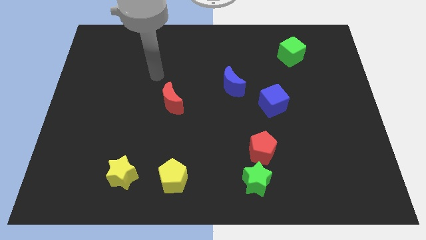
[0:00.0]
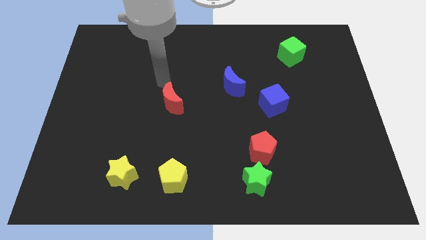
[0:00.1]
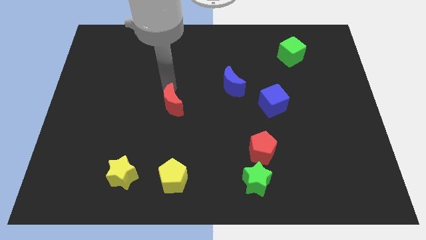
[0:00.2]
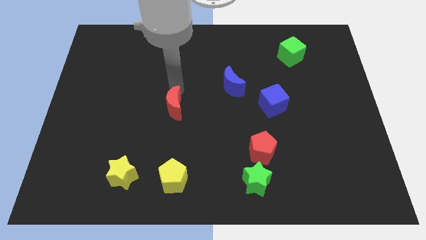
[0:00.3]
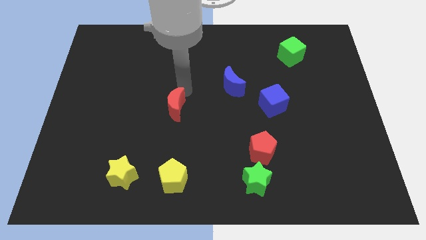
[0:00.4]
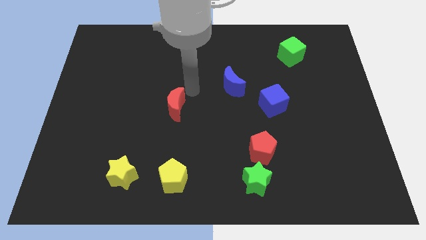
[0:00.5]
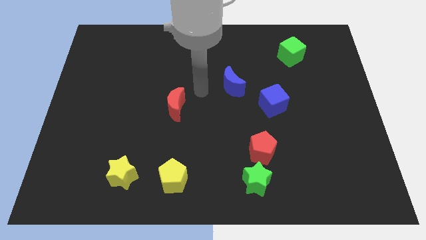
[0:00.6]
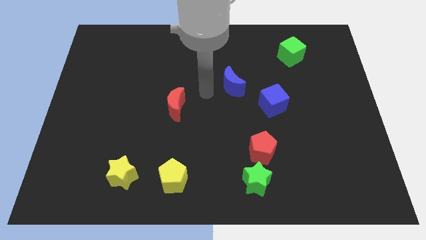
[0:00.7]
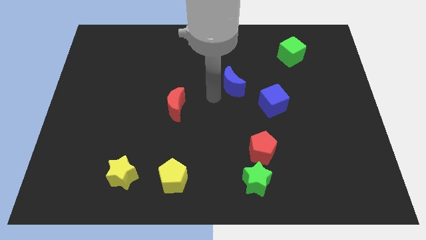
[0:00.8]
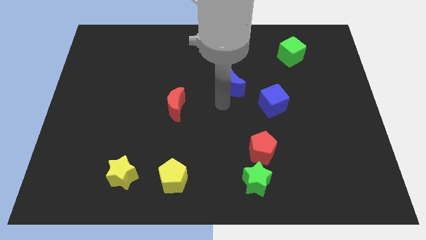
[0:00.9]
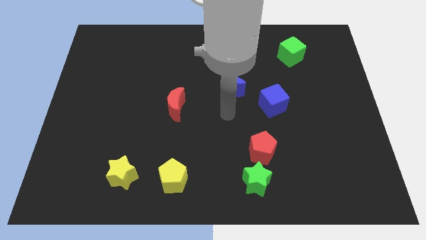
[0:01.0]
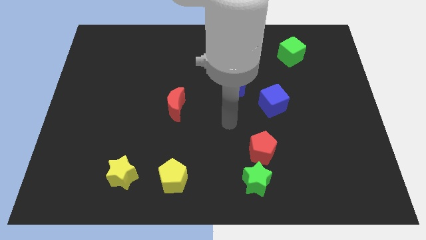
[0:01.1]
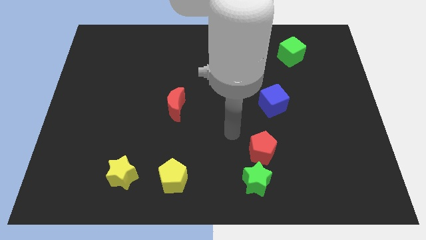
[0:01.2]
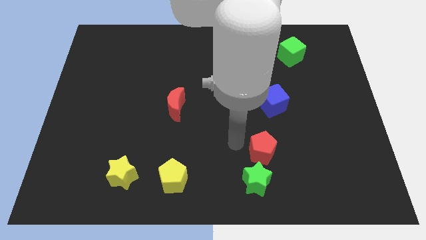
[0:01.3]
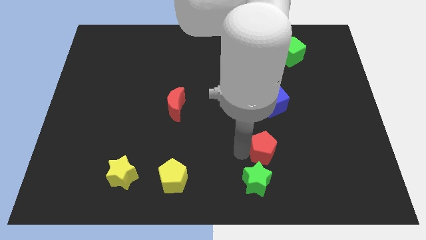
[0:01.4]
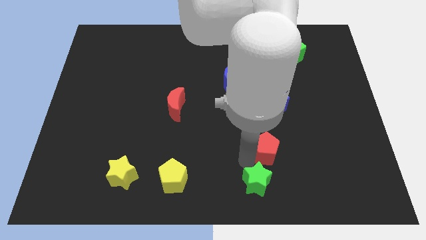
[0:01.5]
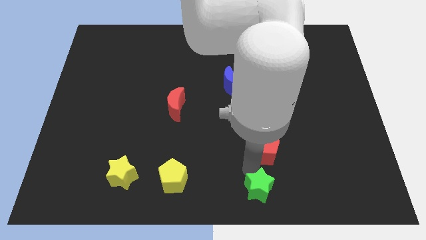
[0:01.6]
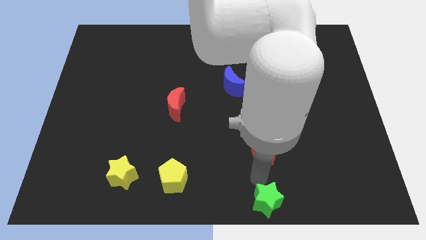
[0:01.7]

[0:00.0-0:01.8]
pull the red pentagon apart from the green star

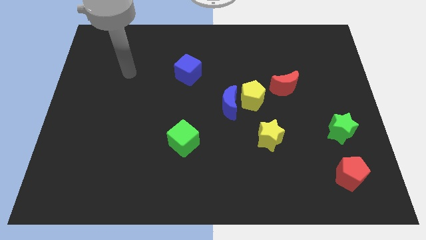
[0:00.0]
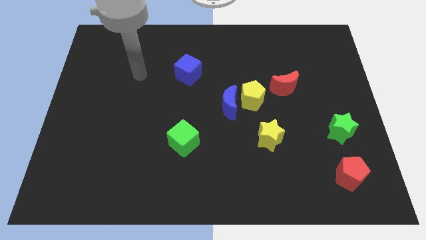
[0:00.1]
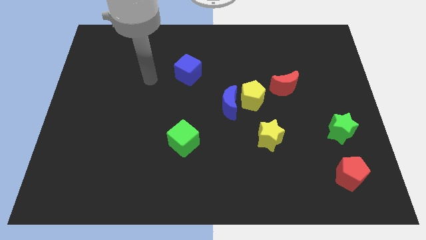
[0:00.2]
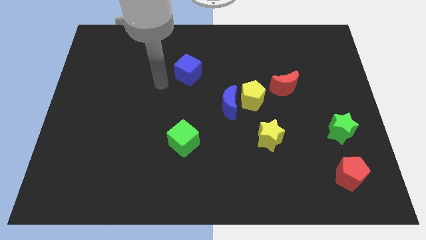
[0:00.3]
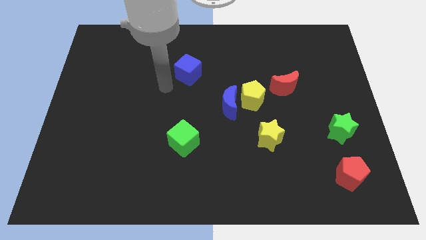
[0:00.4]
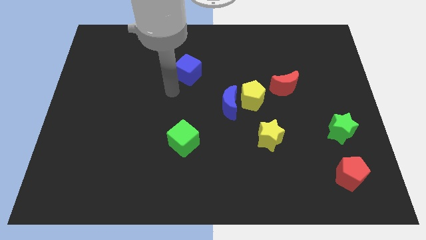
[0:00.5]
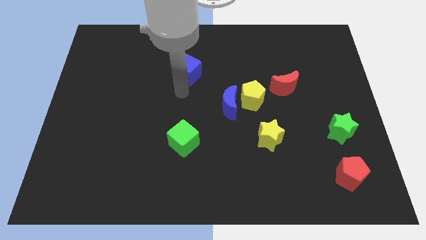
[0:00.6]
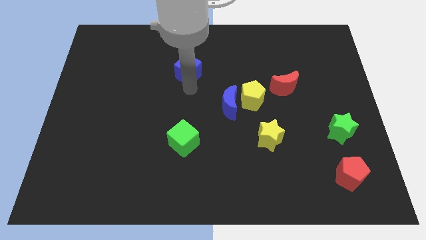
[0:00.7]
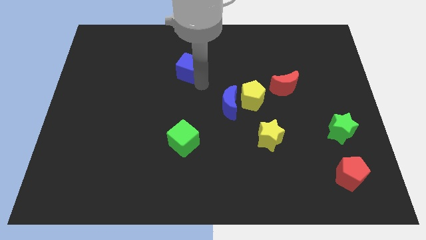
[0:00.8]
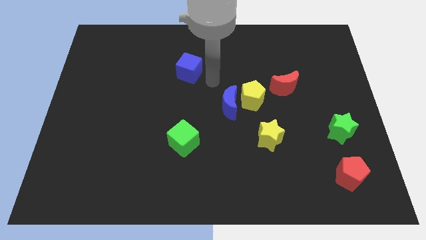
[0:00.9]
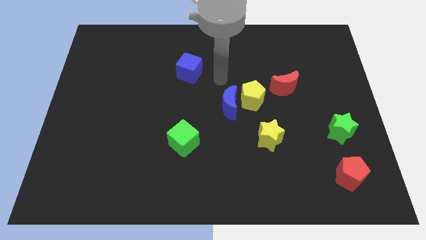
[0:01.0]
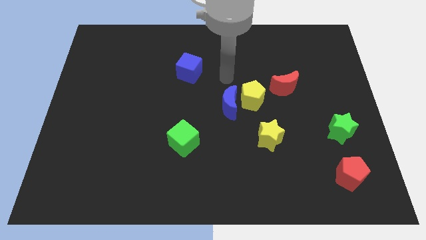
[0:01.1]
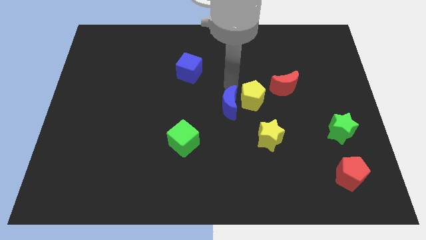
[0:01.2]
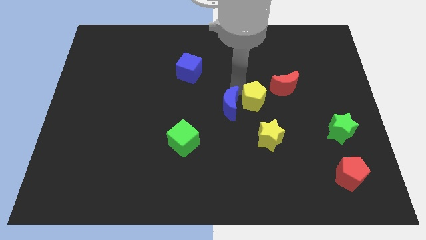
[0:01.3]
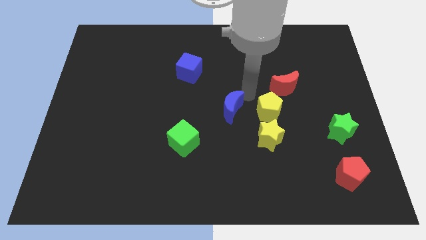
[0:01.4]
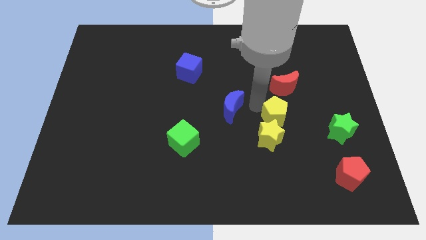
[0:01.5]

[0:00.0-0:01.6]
separate the blue moon from the yellow pentagon

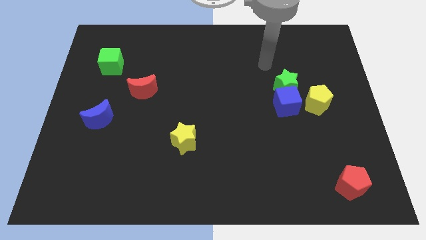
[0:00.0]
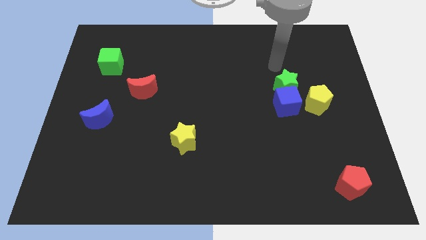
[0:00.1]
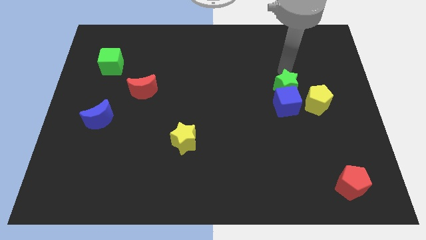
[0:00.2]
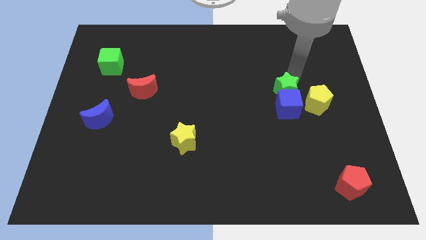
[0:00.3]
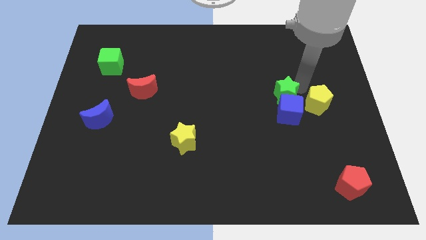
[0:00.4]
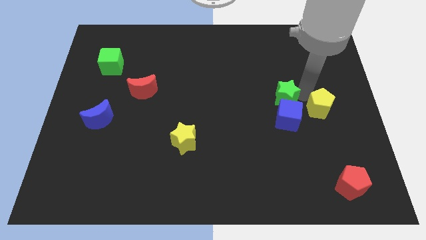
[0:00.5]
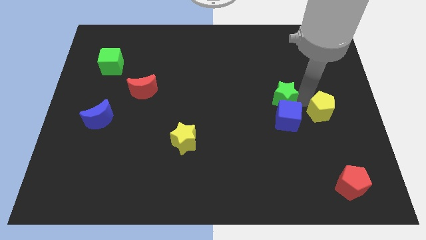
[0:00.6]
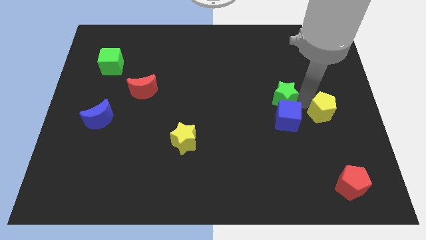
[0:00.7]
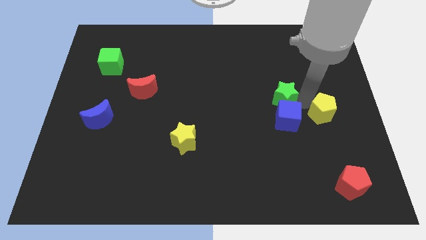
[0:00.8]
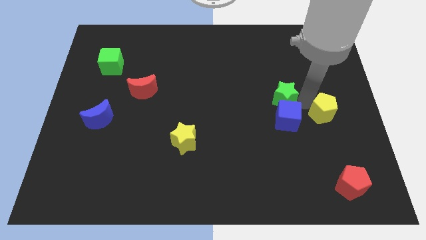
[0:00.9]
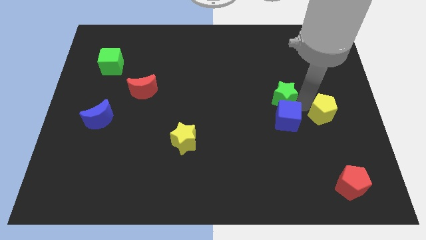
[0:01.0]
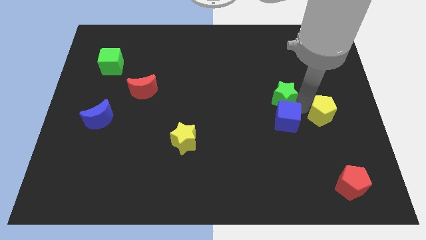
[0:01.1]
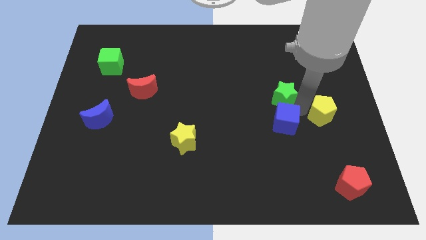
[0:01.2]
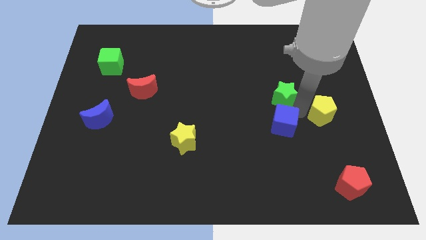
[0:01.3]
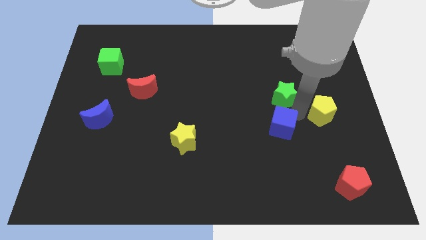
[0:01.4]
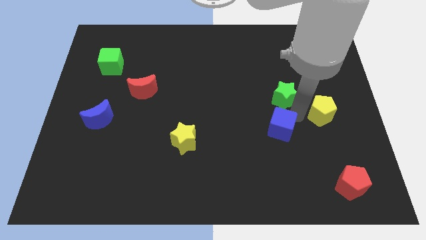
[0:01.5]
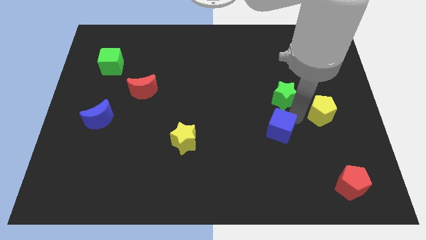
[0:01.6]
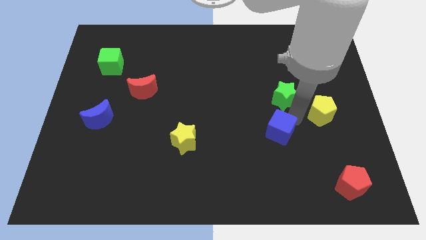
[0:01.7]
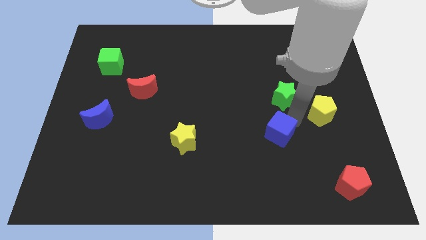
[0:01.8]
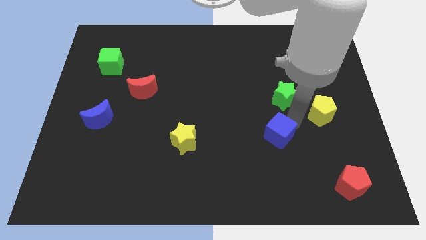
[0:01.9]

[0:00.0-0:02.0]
move the blue cube away from the green star and yellow pentagon

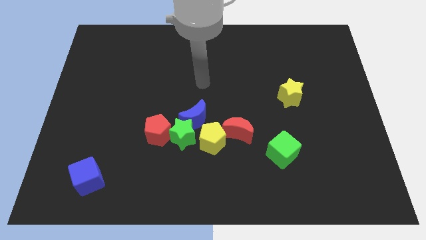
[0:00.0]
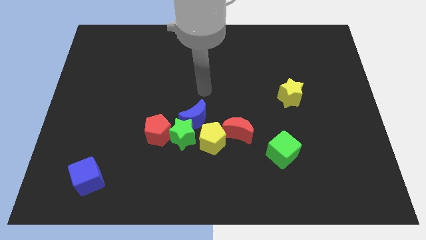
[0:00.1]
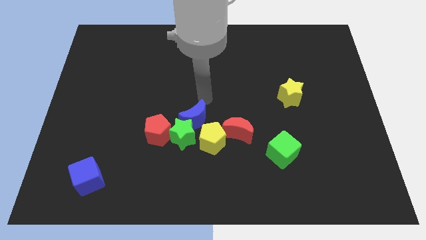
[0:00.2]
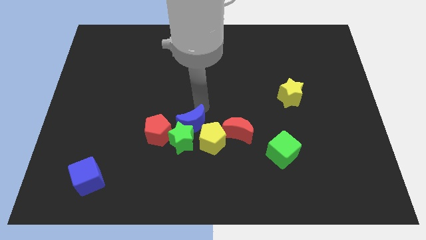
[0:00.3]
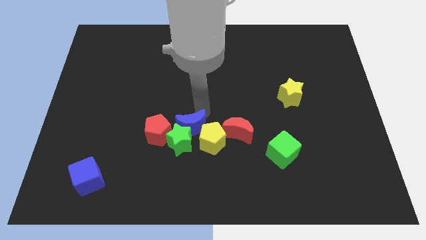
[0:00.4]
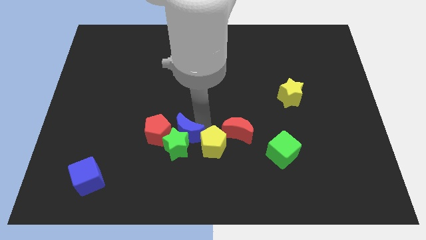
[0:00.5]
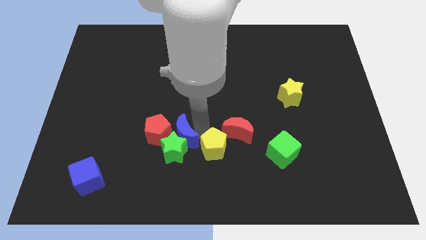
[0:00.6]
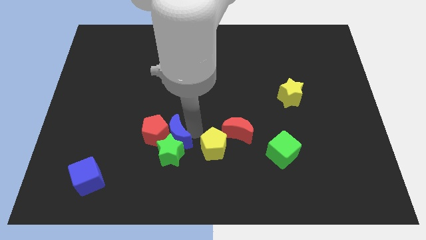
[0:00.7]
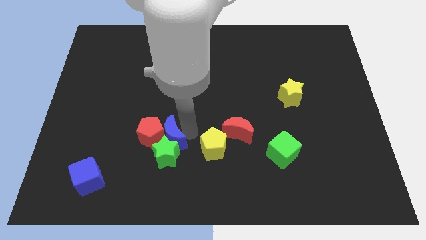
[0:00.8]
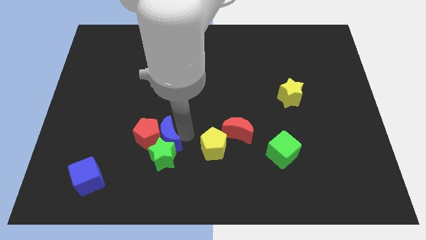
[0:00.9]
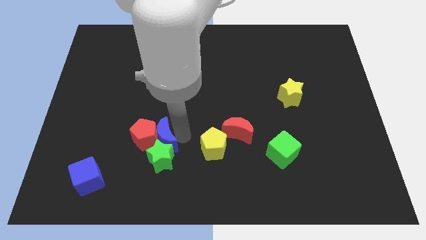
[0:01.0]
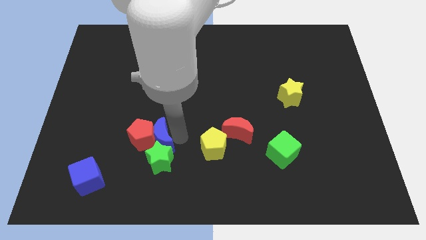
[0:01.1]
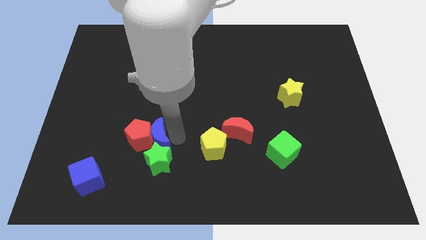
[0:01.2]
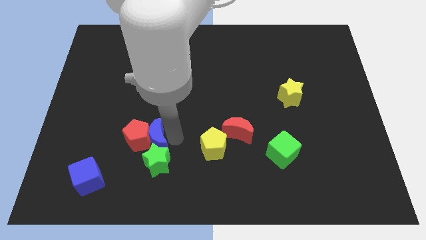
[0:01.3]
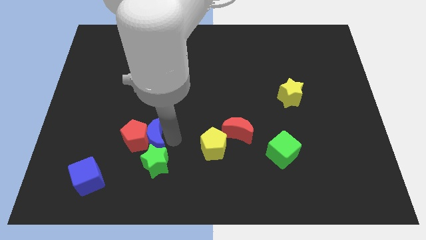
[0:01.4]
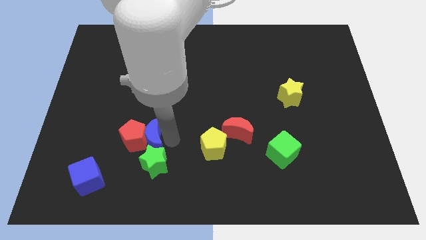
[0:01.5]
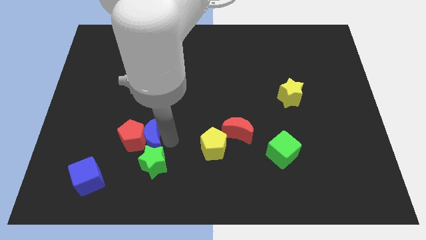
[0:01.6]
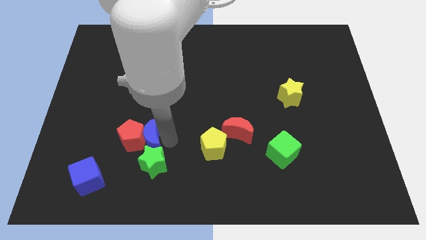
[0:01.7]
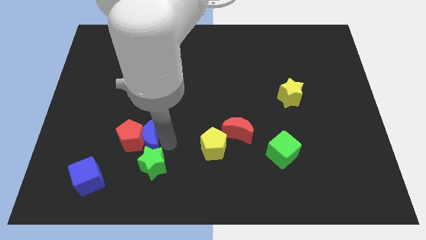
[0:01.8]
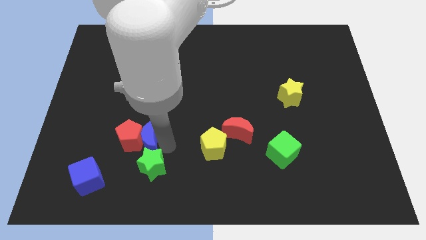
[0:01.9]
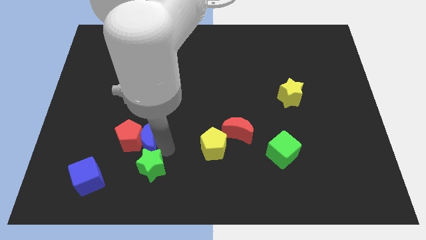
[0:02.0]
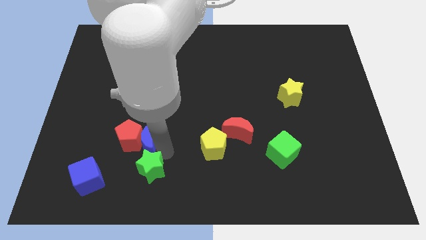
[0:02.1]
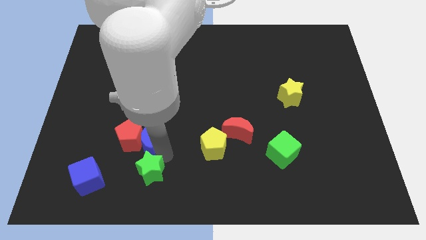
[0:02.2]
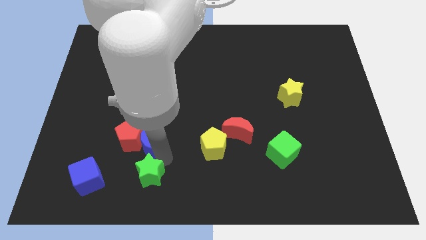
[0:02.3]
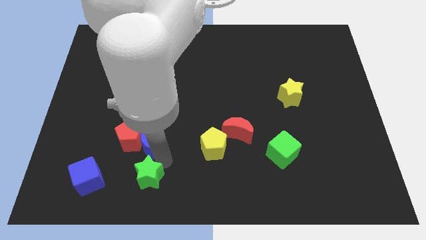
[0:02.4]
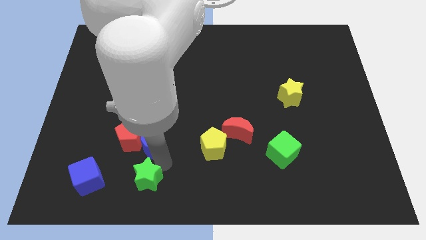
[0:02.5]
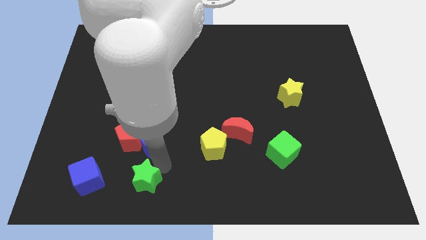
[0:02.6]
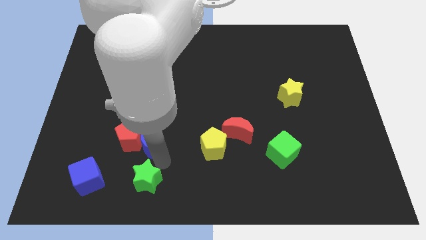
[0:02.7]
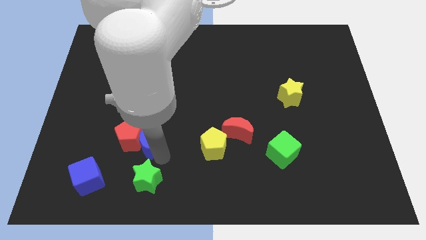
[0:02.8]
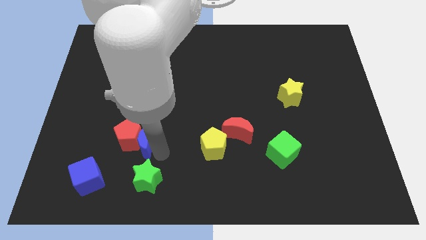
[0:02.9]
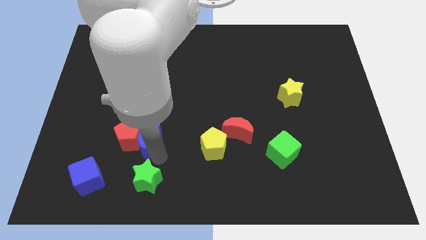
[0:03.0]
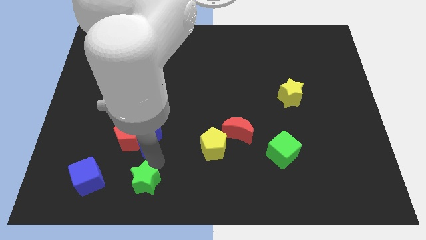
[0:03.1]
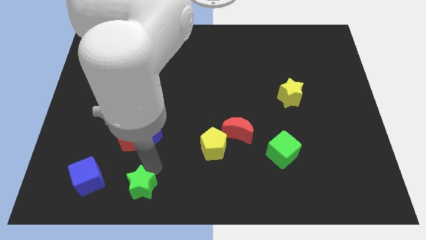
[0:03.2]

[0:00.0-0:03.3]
separate the green star from the blue moon, red pentagon, and yellow pentagon

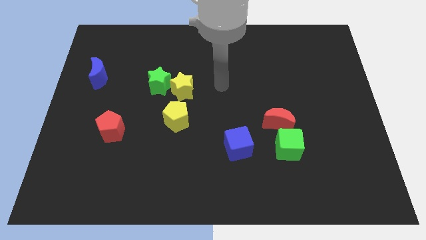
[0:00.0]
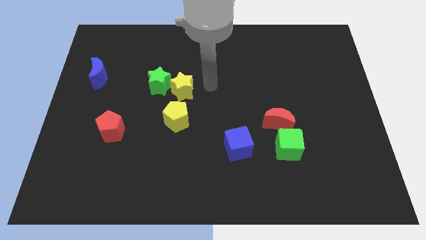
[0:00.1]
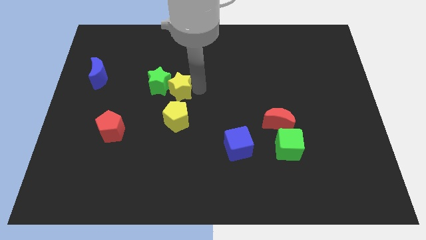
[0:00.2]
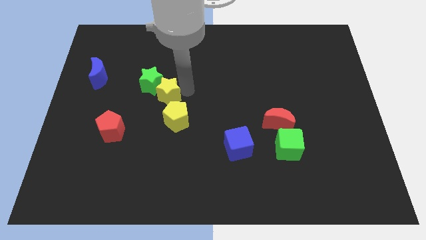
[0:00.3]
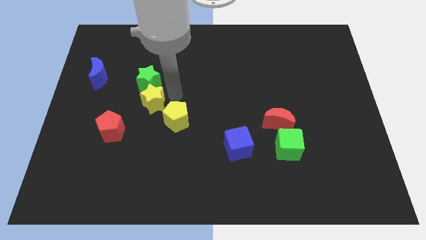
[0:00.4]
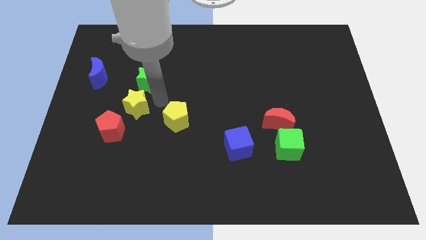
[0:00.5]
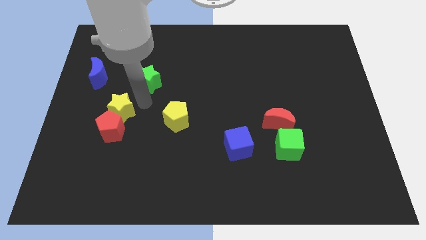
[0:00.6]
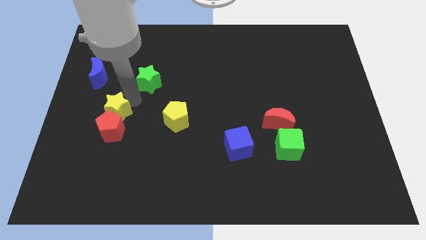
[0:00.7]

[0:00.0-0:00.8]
pull the green star apart from the yellow star
